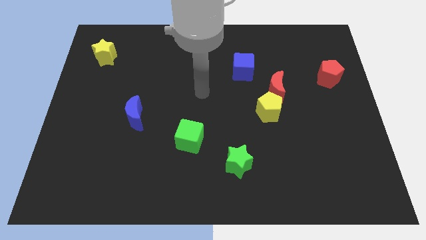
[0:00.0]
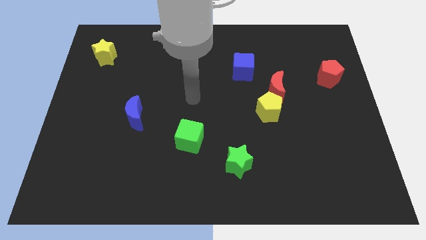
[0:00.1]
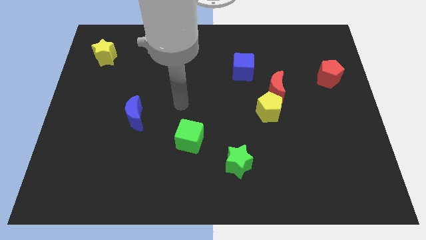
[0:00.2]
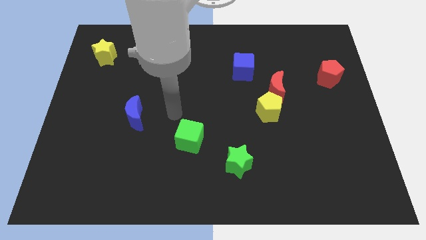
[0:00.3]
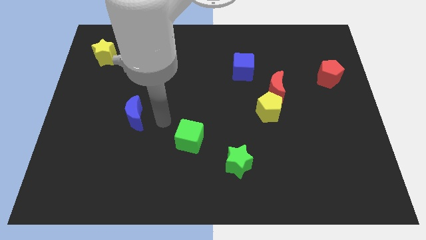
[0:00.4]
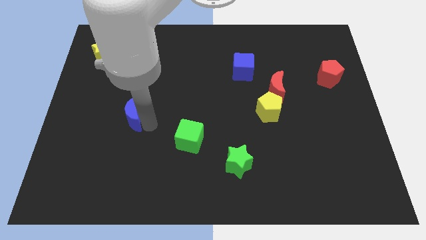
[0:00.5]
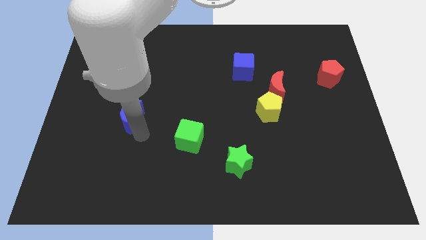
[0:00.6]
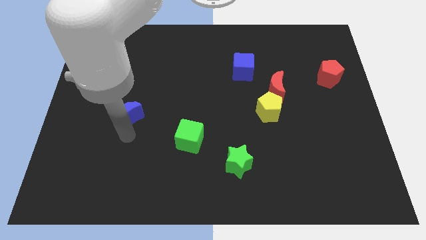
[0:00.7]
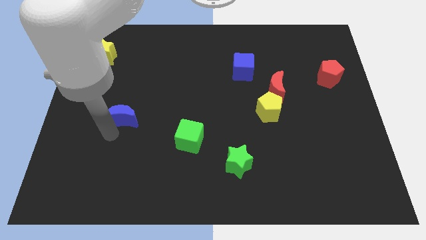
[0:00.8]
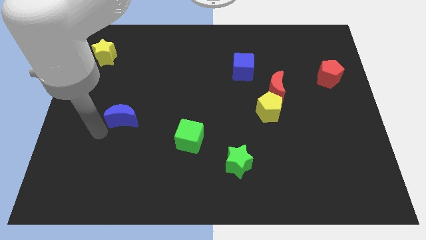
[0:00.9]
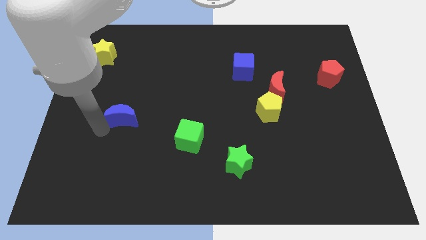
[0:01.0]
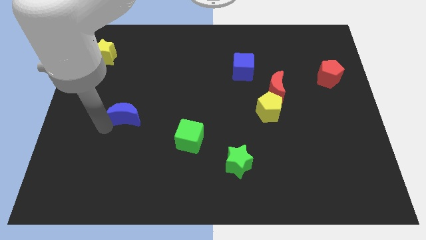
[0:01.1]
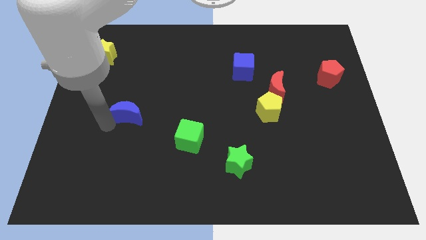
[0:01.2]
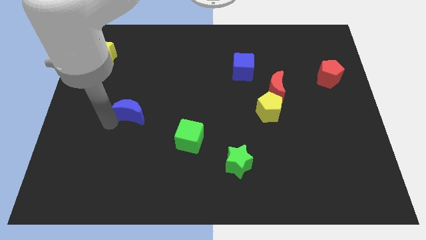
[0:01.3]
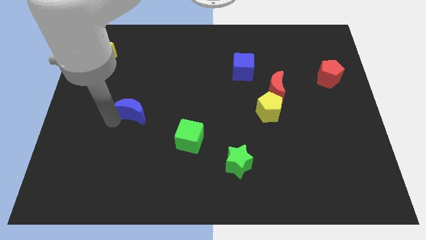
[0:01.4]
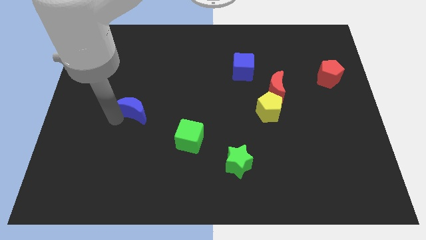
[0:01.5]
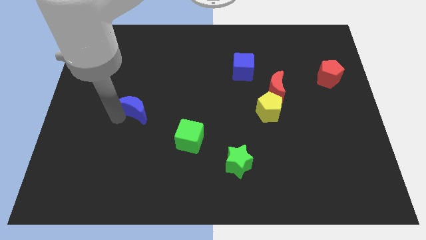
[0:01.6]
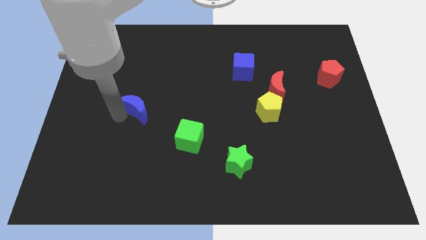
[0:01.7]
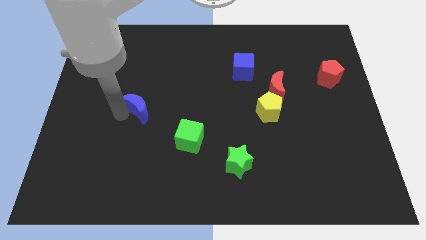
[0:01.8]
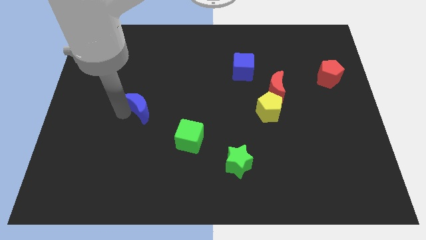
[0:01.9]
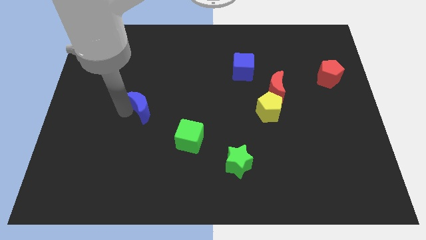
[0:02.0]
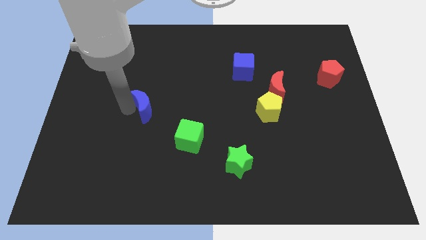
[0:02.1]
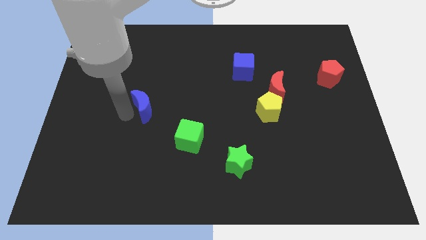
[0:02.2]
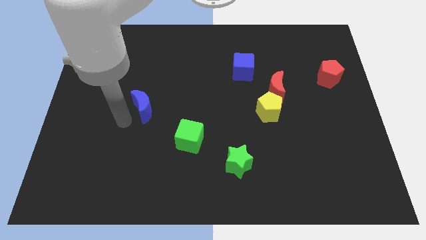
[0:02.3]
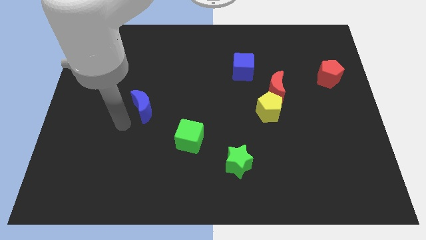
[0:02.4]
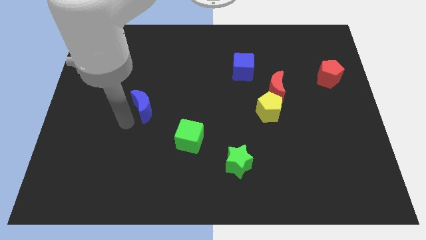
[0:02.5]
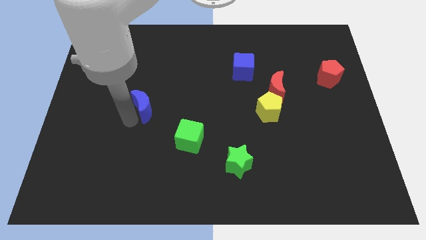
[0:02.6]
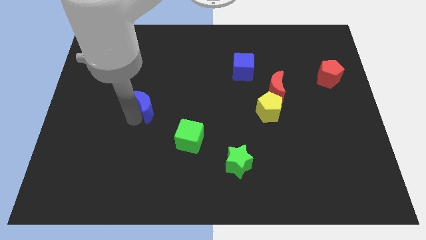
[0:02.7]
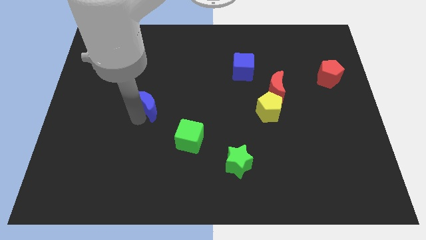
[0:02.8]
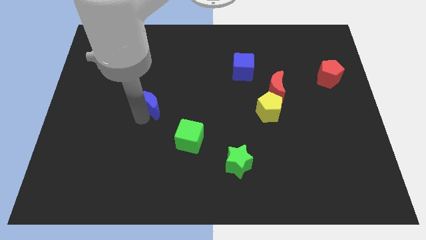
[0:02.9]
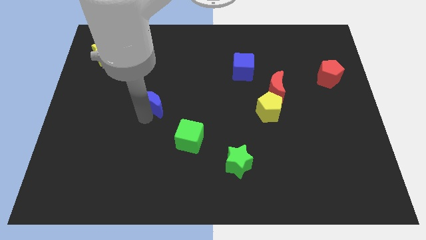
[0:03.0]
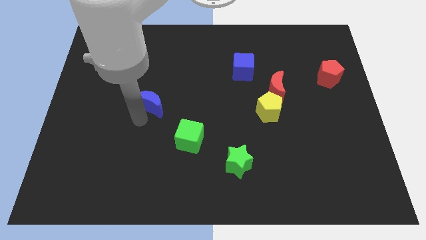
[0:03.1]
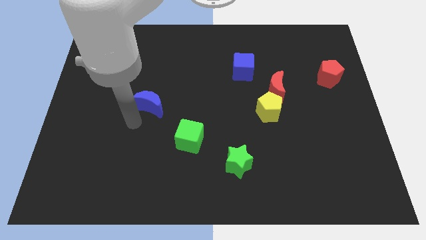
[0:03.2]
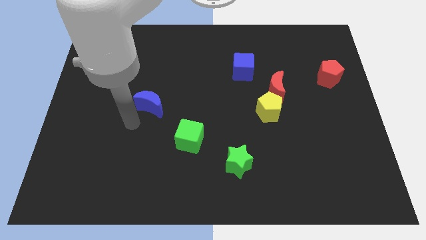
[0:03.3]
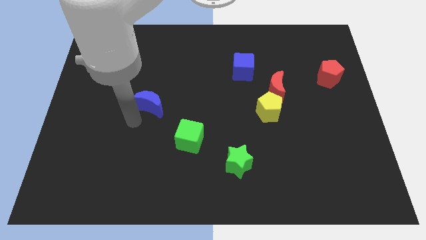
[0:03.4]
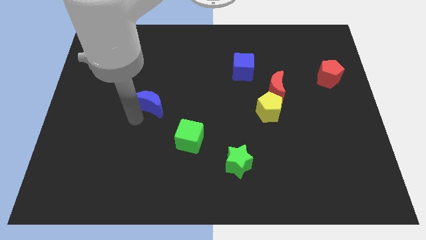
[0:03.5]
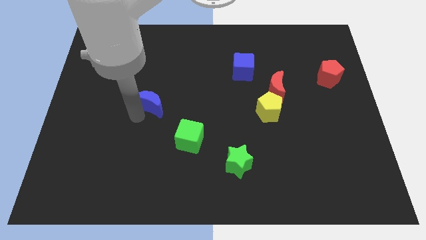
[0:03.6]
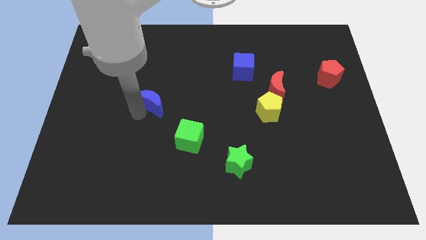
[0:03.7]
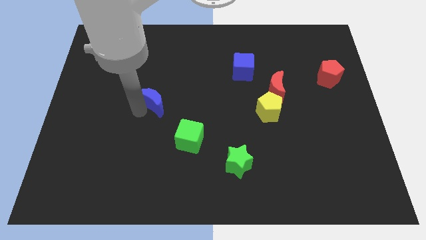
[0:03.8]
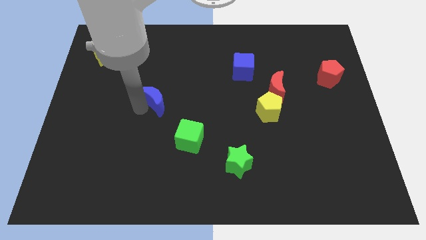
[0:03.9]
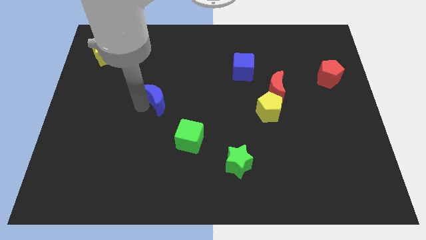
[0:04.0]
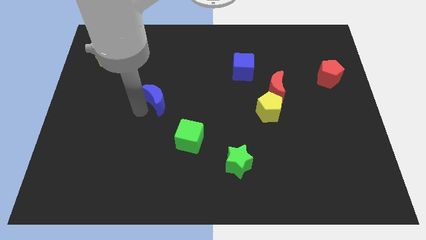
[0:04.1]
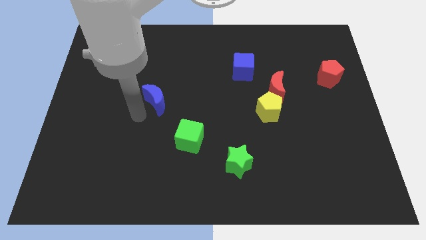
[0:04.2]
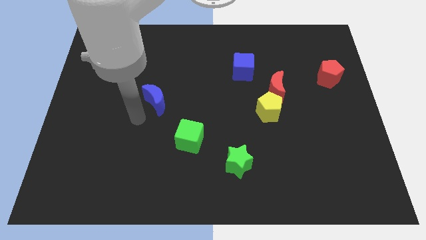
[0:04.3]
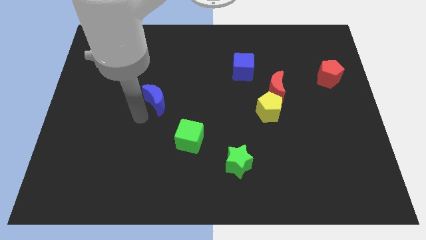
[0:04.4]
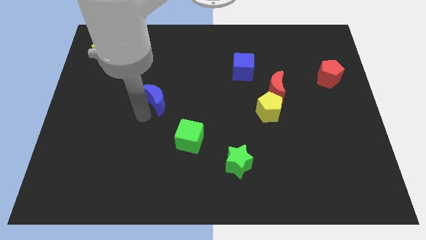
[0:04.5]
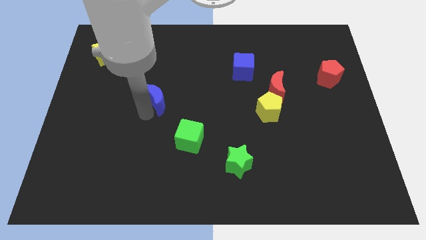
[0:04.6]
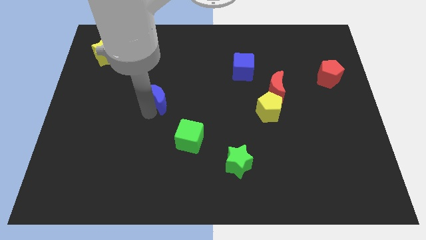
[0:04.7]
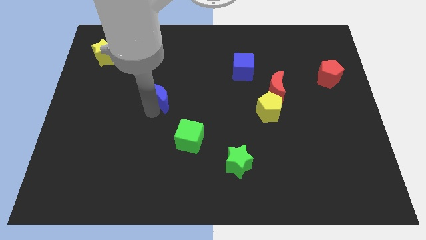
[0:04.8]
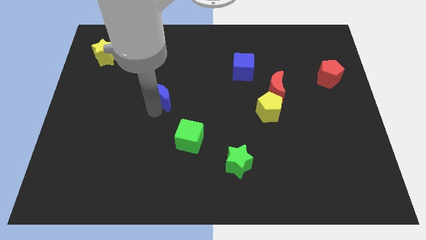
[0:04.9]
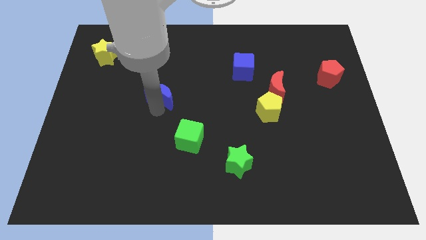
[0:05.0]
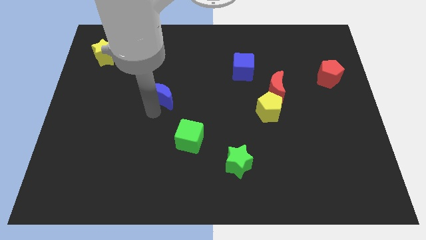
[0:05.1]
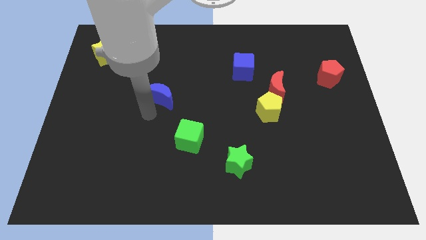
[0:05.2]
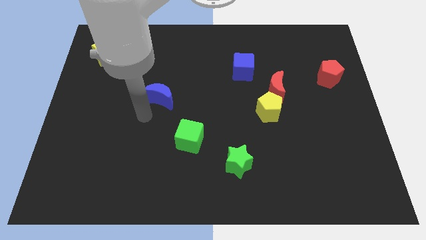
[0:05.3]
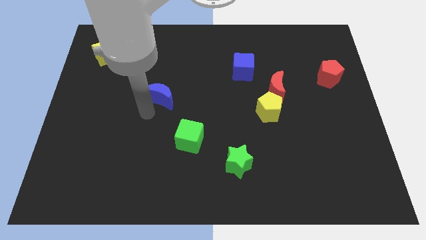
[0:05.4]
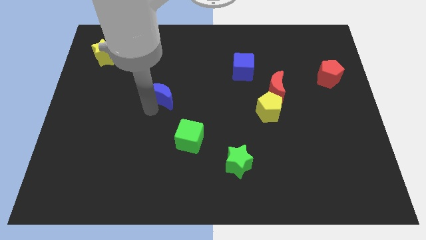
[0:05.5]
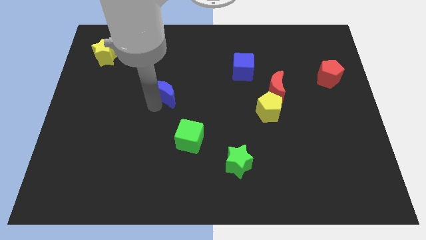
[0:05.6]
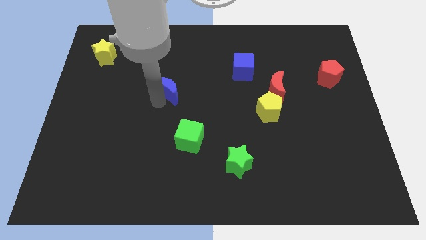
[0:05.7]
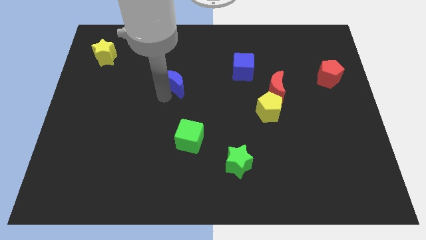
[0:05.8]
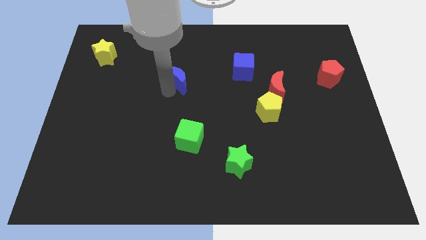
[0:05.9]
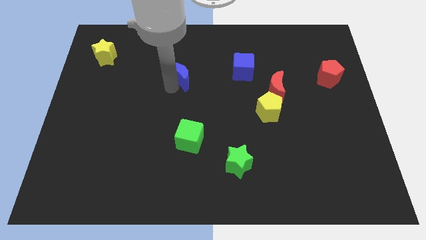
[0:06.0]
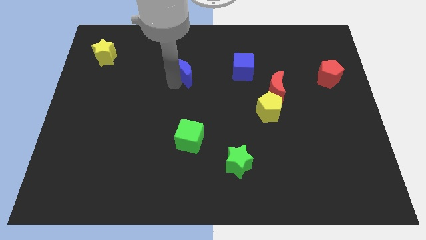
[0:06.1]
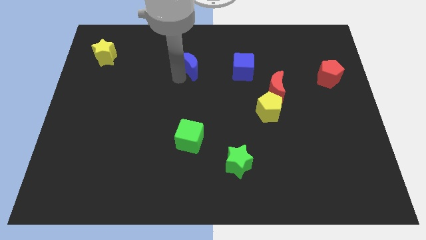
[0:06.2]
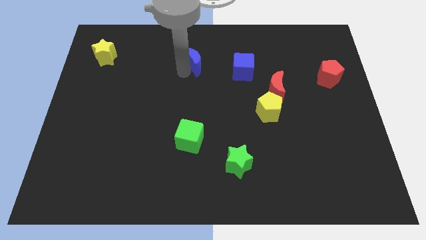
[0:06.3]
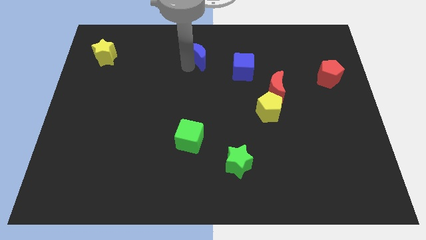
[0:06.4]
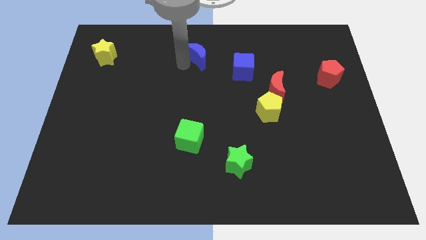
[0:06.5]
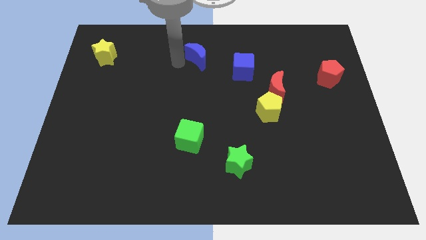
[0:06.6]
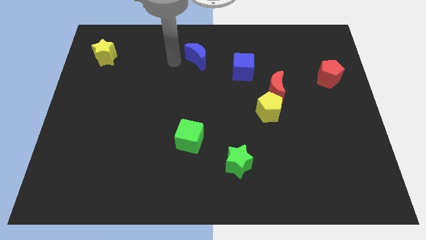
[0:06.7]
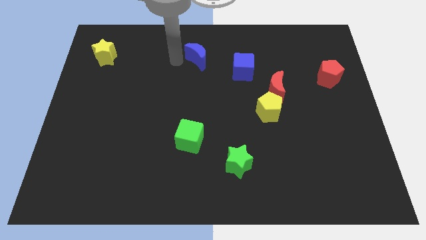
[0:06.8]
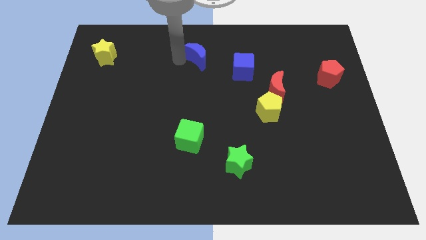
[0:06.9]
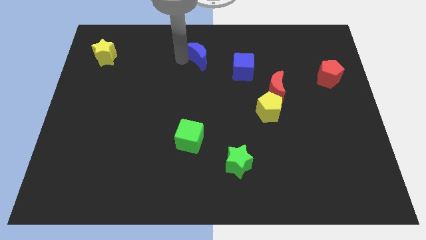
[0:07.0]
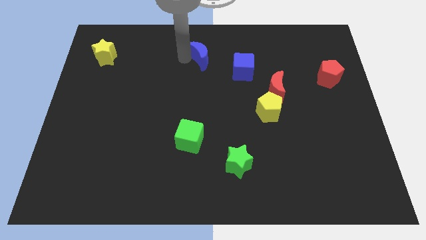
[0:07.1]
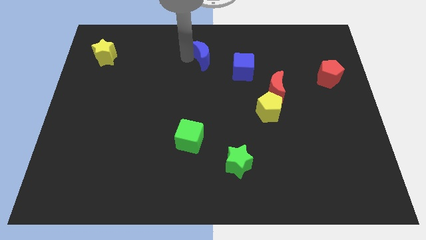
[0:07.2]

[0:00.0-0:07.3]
move the blue moon to the top left of the blue cube

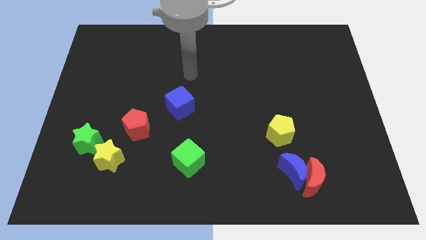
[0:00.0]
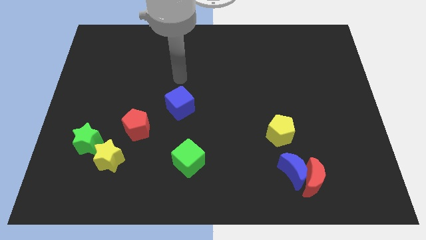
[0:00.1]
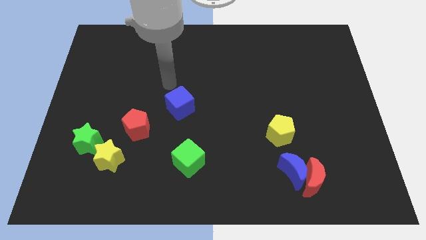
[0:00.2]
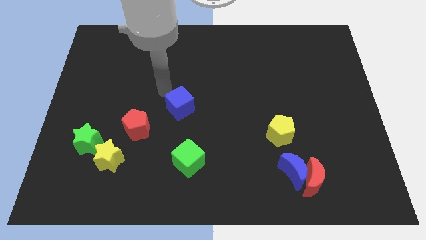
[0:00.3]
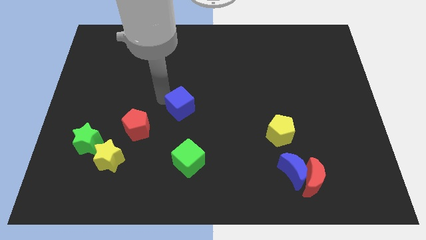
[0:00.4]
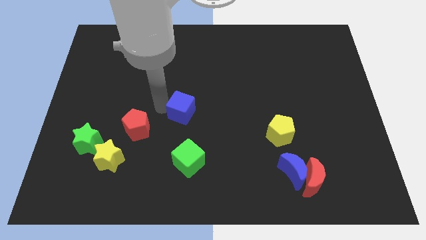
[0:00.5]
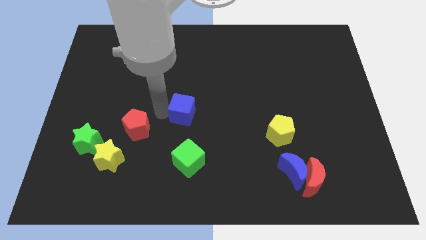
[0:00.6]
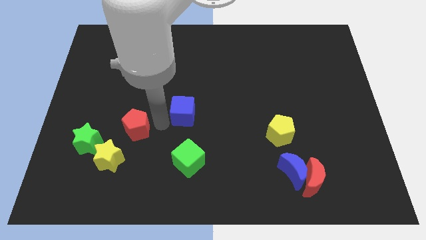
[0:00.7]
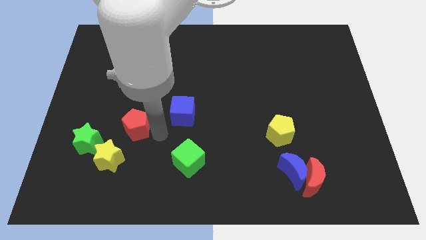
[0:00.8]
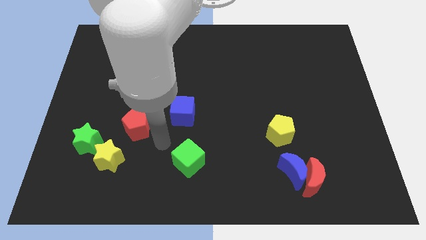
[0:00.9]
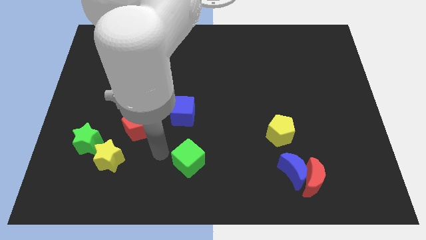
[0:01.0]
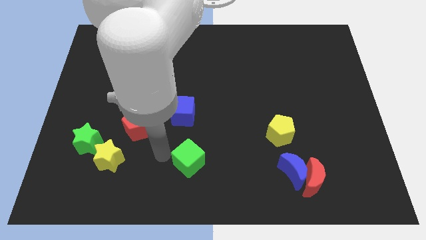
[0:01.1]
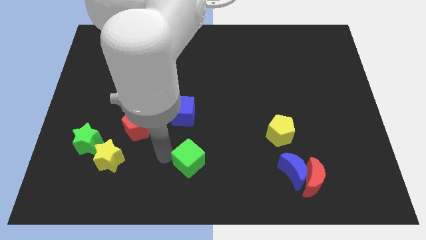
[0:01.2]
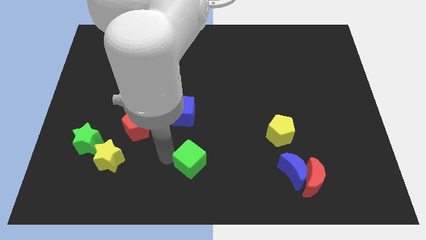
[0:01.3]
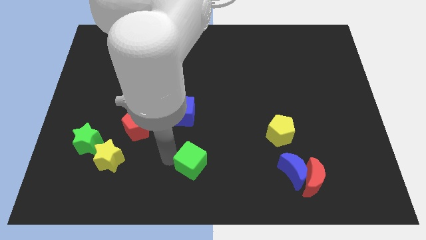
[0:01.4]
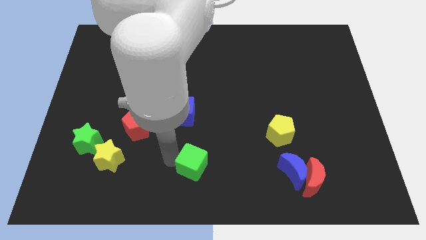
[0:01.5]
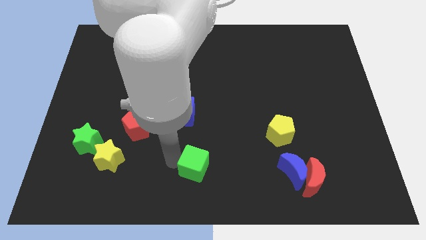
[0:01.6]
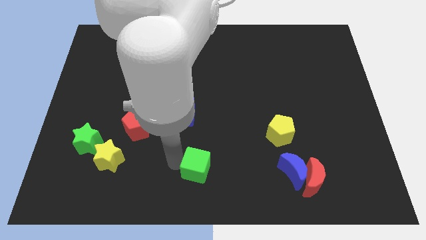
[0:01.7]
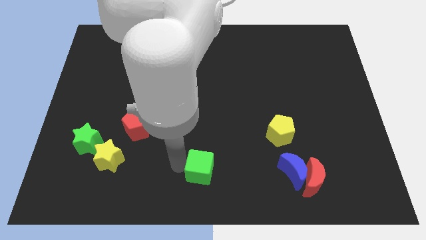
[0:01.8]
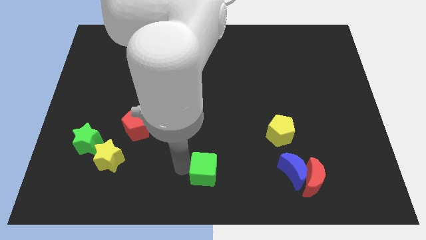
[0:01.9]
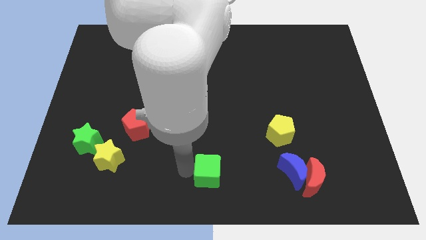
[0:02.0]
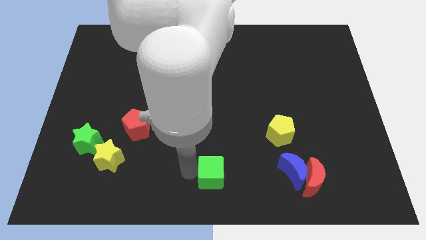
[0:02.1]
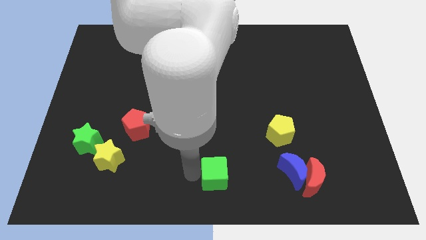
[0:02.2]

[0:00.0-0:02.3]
put the green cube to the left of the blue moon
